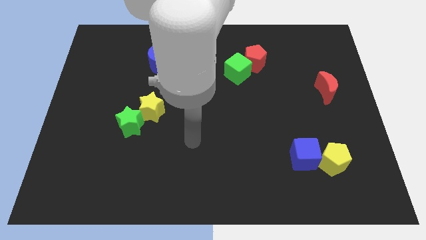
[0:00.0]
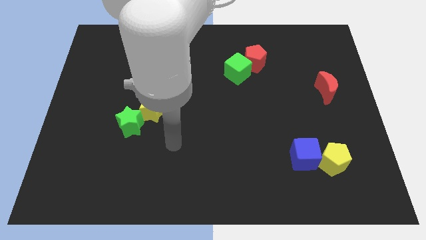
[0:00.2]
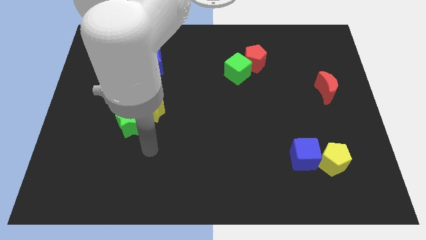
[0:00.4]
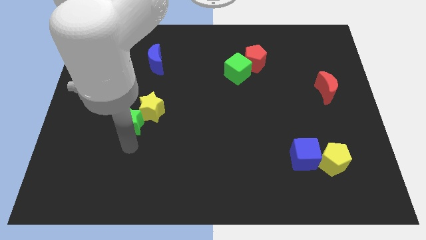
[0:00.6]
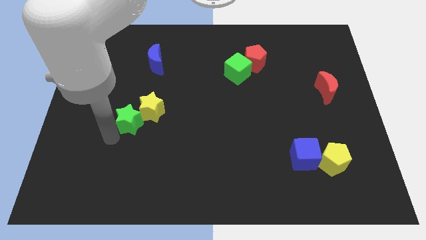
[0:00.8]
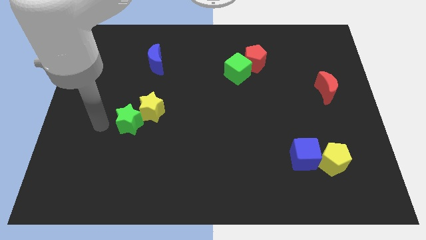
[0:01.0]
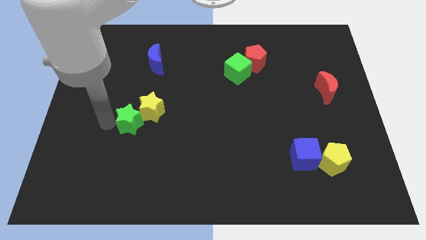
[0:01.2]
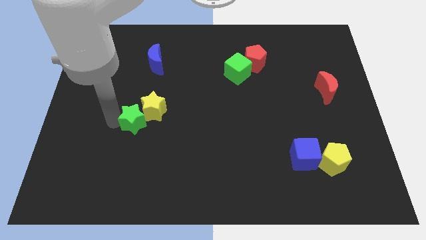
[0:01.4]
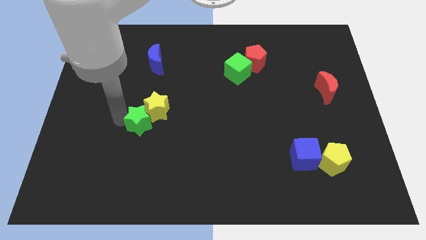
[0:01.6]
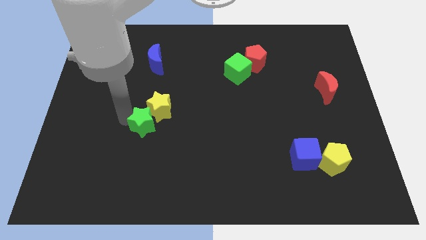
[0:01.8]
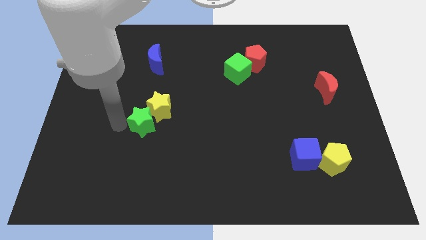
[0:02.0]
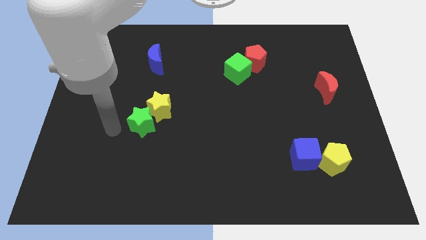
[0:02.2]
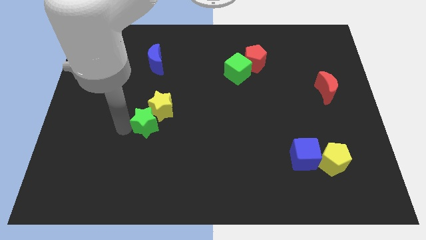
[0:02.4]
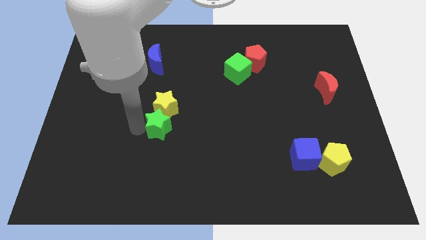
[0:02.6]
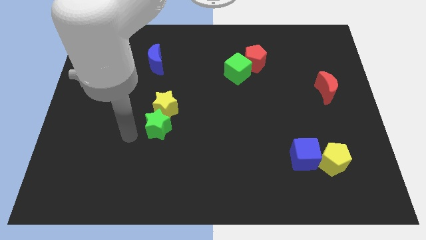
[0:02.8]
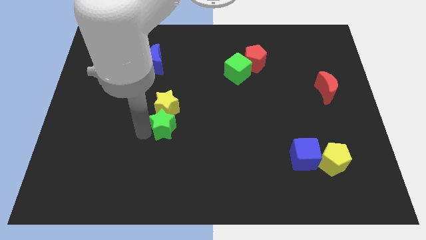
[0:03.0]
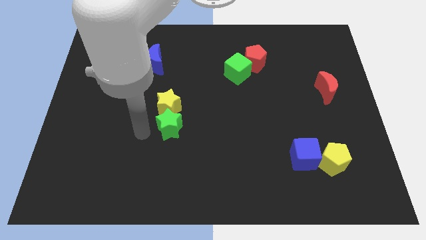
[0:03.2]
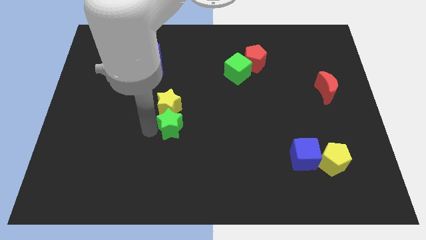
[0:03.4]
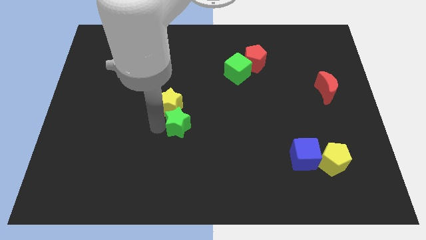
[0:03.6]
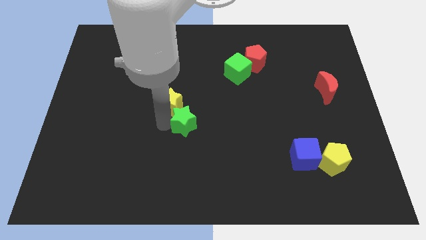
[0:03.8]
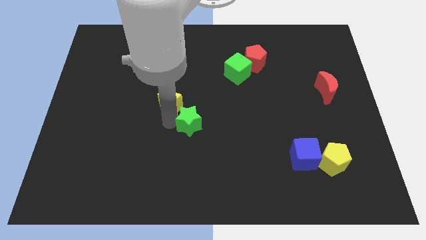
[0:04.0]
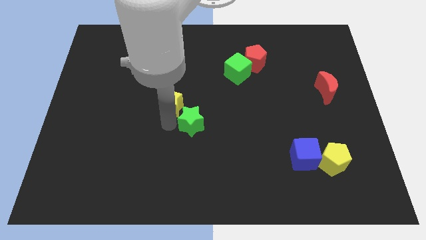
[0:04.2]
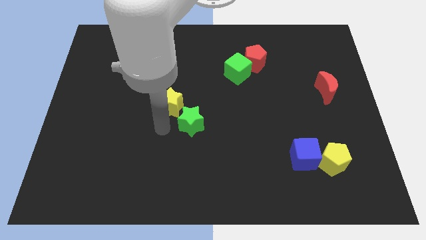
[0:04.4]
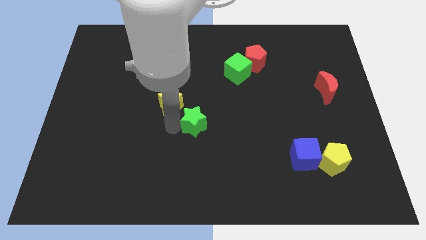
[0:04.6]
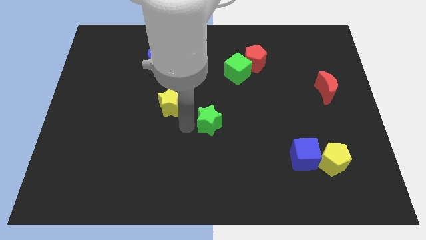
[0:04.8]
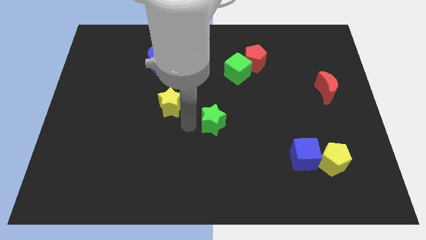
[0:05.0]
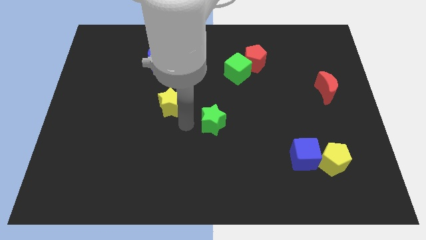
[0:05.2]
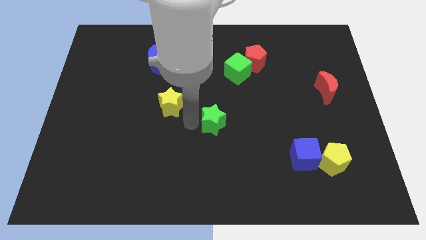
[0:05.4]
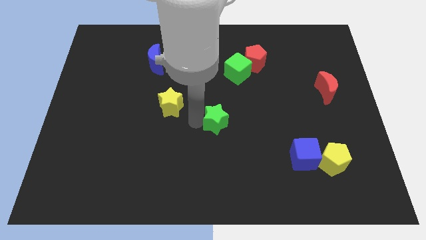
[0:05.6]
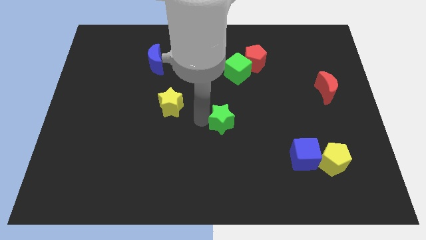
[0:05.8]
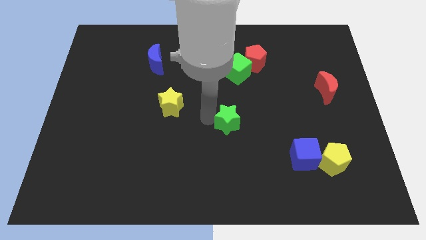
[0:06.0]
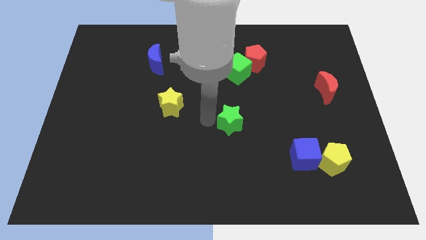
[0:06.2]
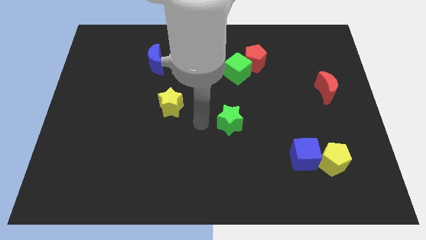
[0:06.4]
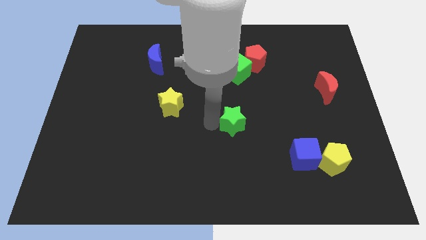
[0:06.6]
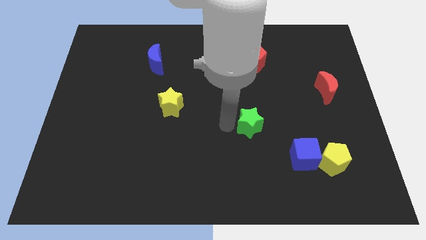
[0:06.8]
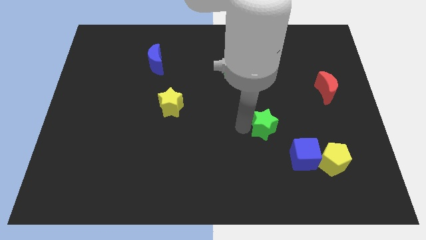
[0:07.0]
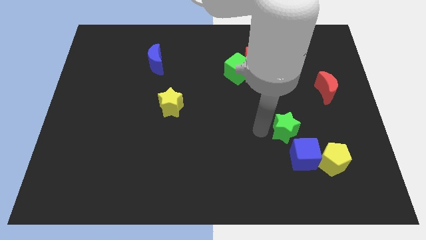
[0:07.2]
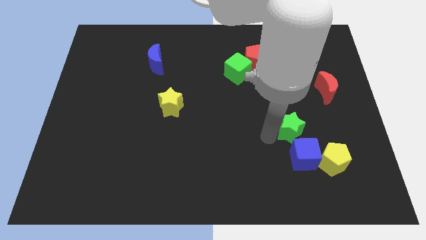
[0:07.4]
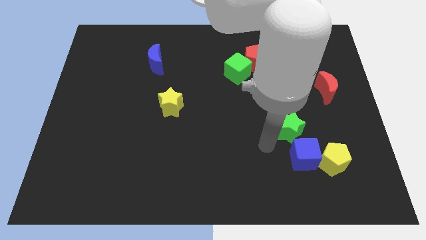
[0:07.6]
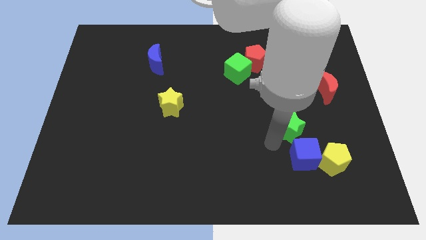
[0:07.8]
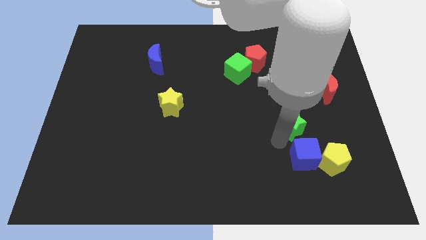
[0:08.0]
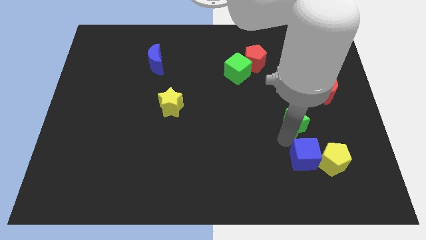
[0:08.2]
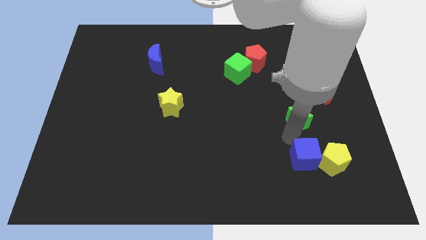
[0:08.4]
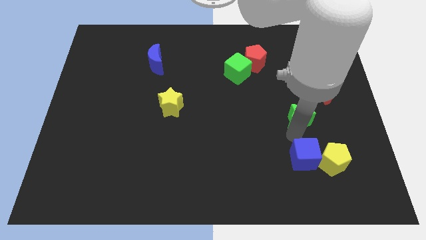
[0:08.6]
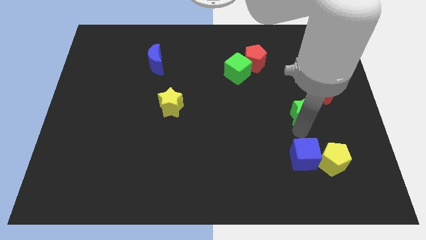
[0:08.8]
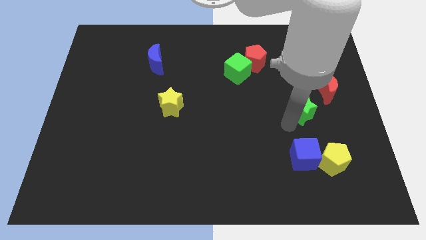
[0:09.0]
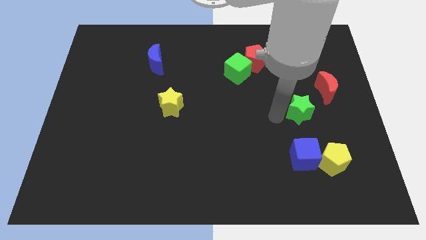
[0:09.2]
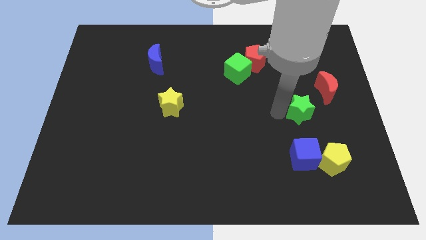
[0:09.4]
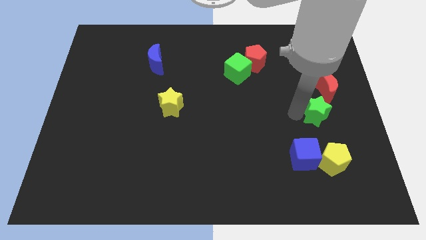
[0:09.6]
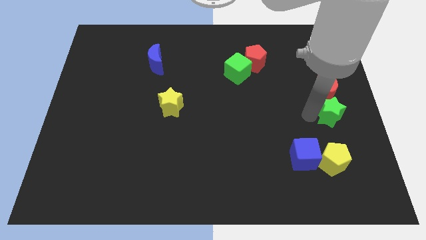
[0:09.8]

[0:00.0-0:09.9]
push the green star to the center right

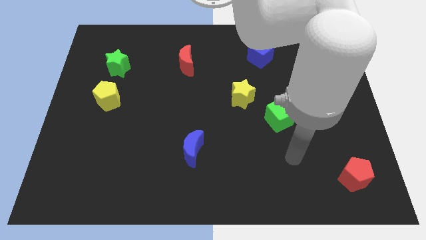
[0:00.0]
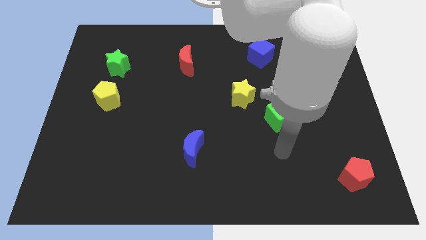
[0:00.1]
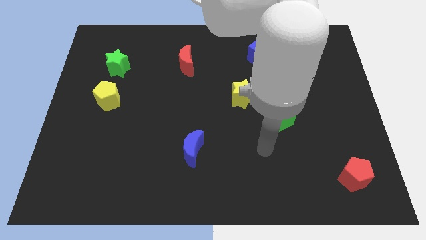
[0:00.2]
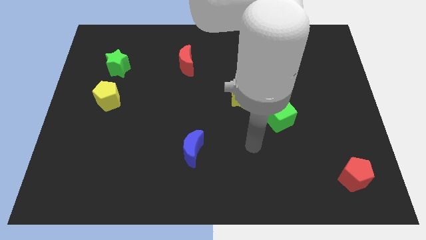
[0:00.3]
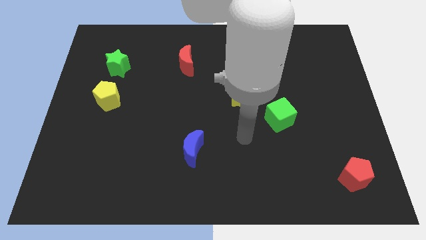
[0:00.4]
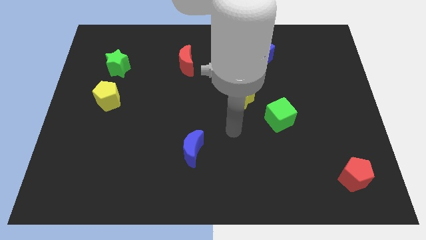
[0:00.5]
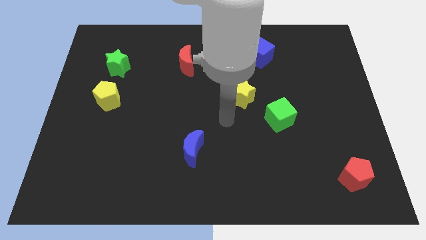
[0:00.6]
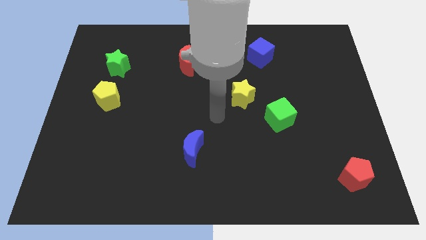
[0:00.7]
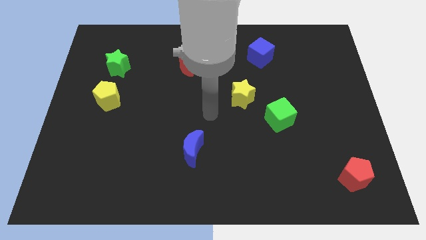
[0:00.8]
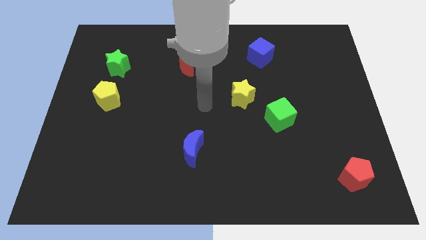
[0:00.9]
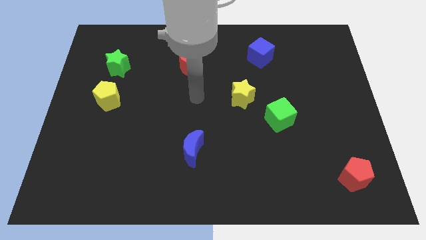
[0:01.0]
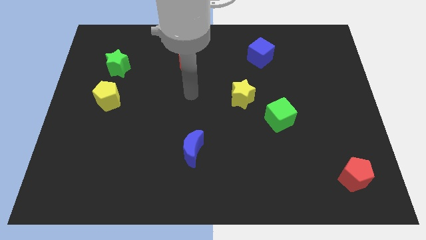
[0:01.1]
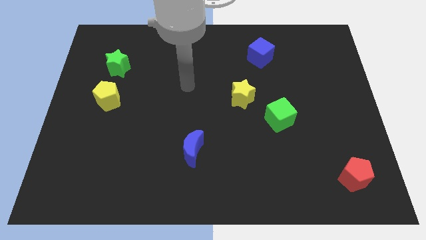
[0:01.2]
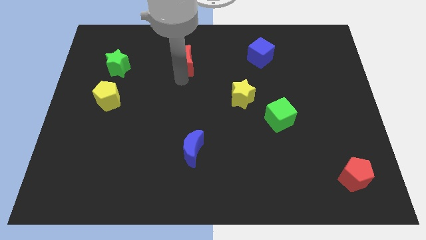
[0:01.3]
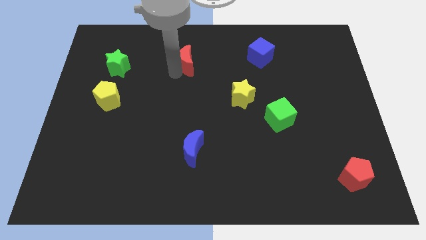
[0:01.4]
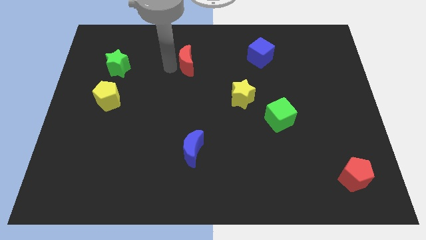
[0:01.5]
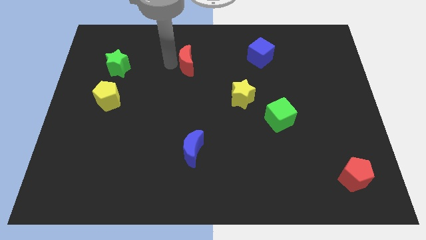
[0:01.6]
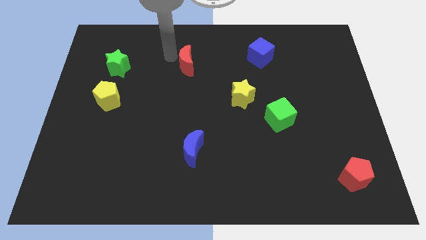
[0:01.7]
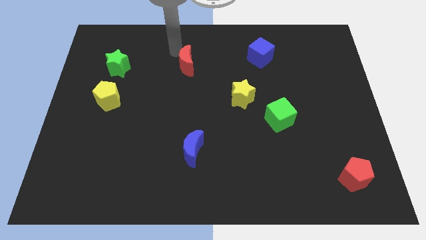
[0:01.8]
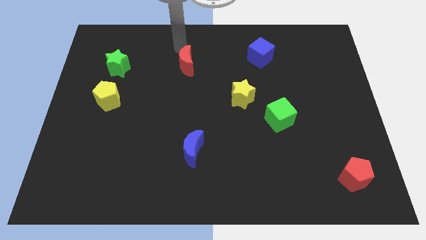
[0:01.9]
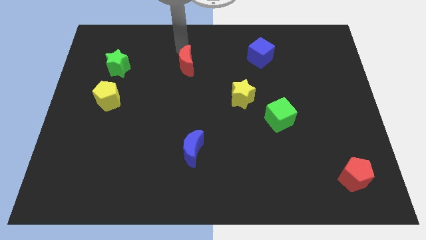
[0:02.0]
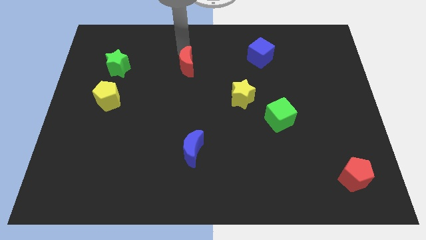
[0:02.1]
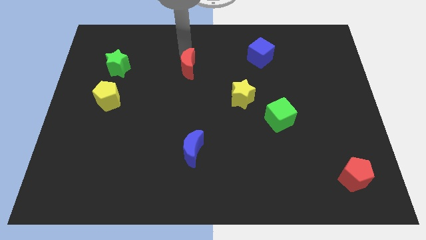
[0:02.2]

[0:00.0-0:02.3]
push the red moon to the middle of the board

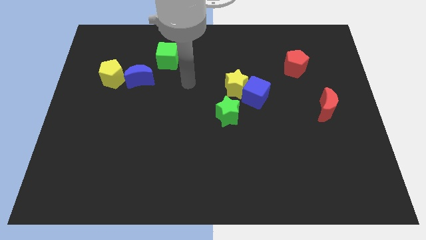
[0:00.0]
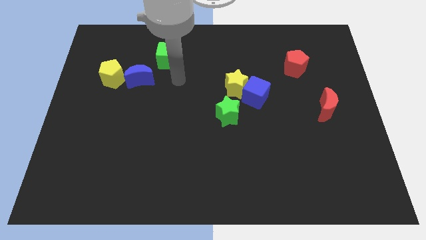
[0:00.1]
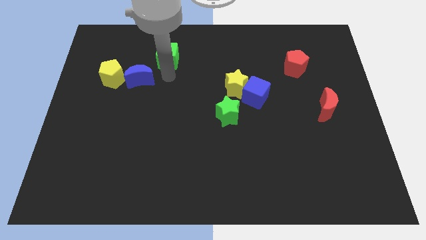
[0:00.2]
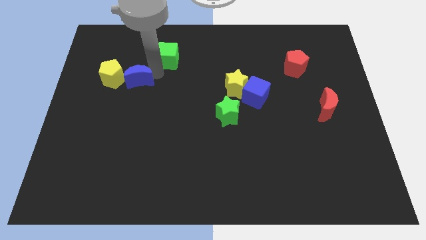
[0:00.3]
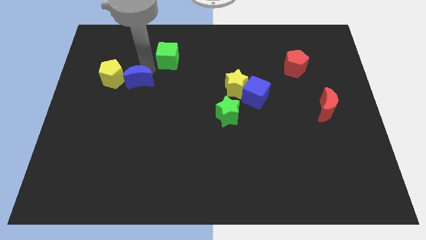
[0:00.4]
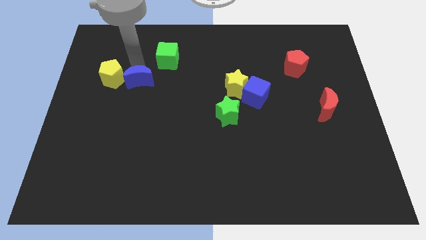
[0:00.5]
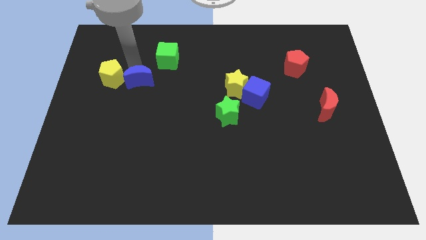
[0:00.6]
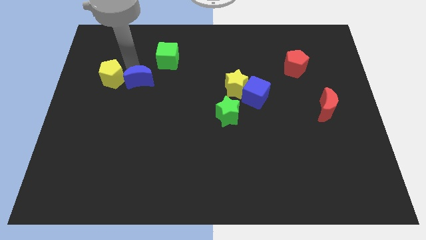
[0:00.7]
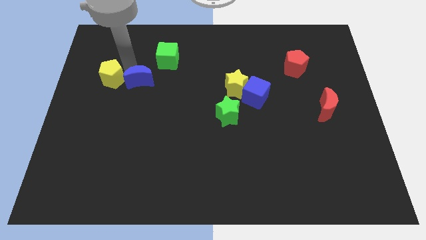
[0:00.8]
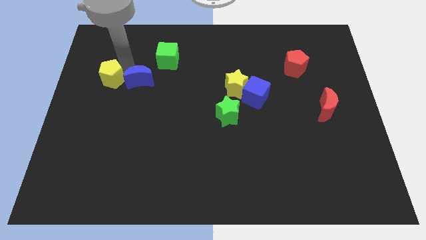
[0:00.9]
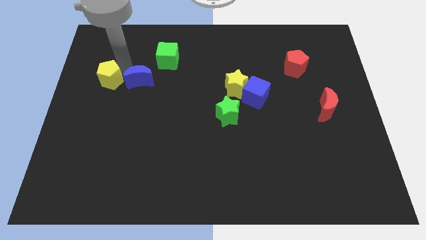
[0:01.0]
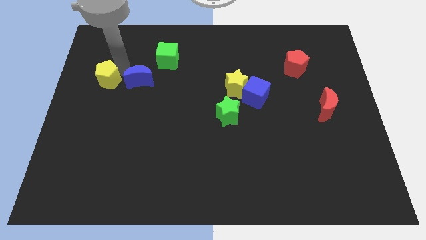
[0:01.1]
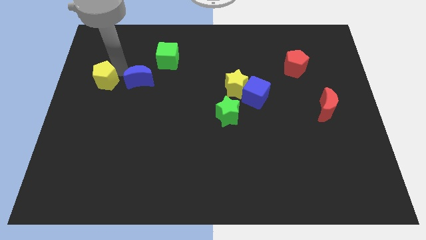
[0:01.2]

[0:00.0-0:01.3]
move the yellow pentagon to the left side of the board
